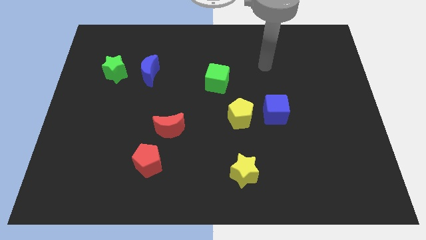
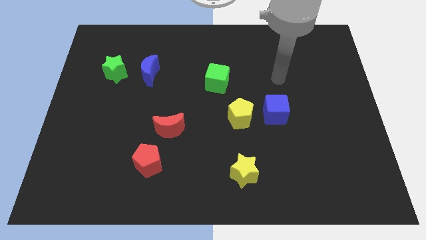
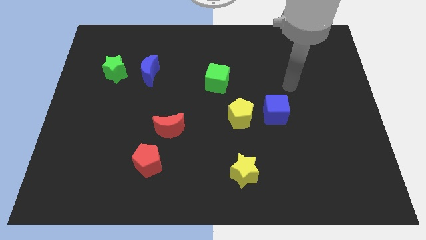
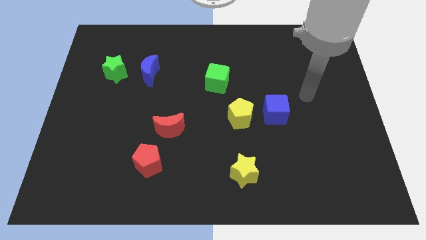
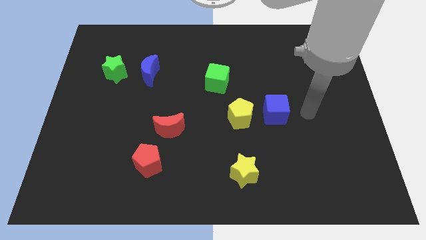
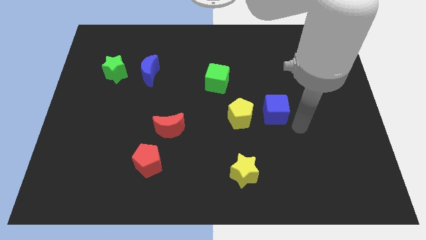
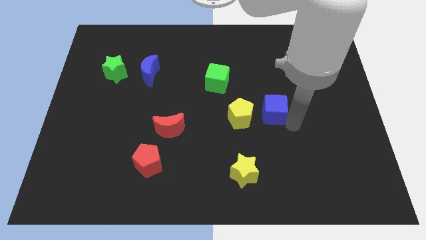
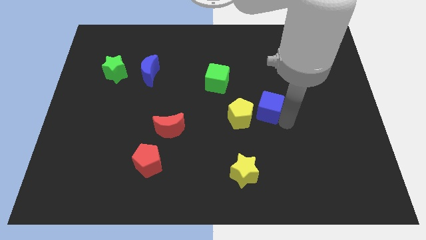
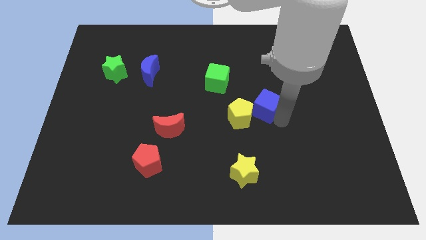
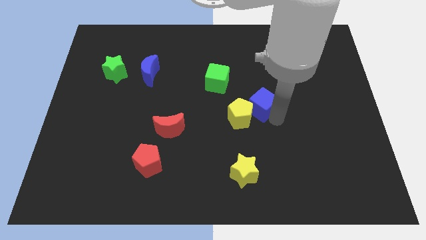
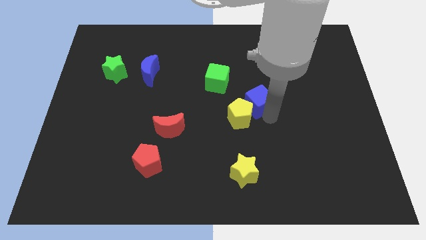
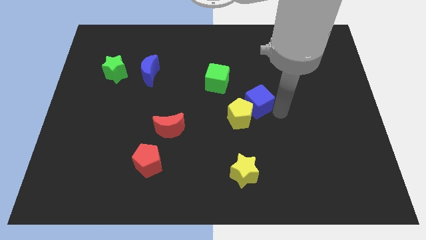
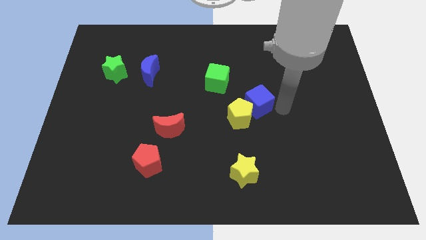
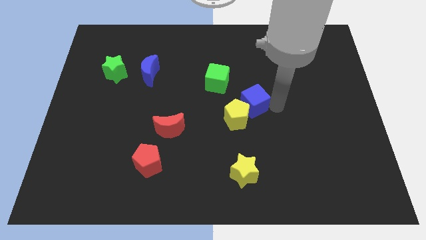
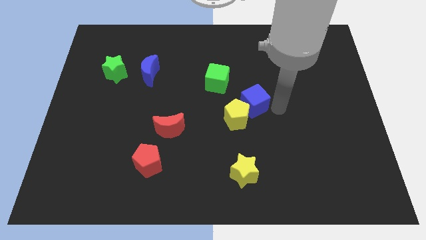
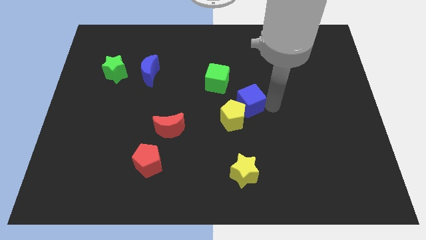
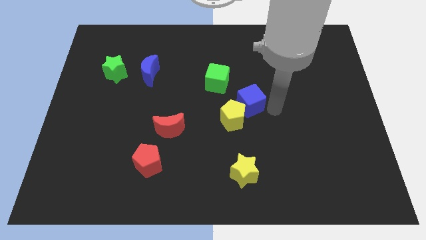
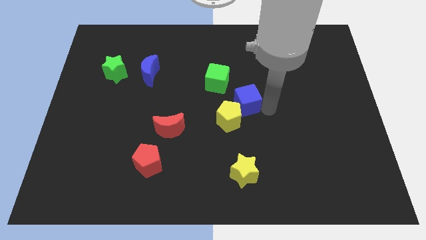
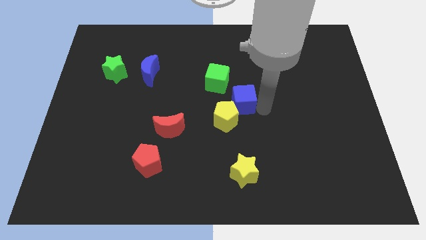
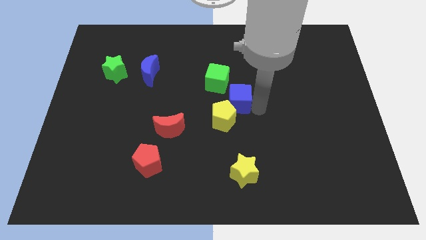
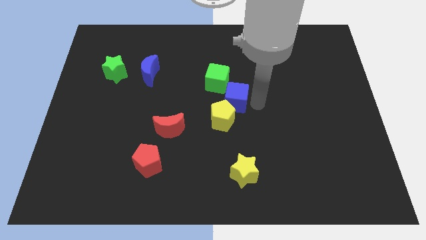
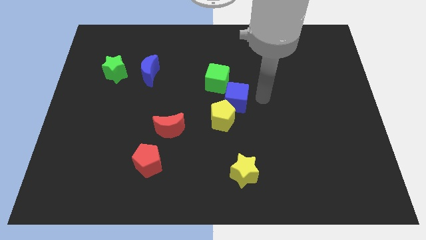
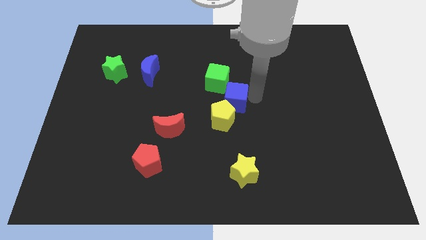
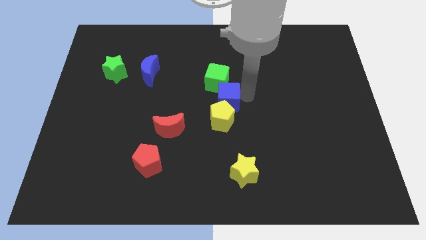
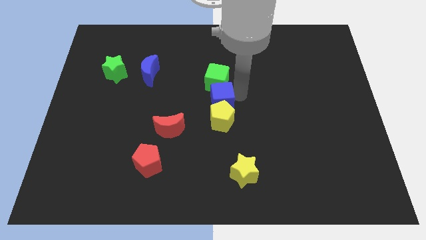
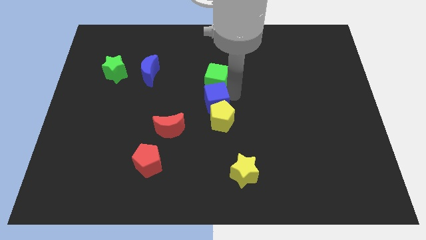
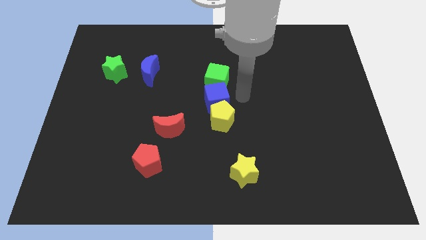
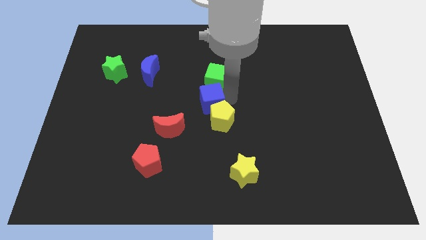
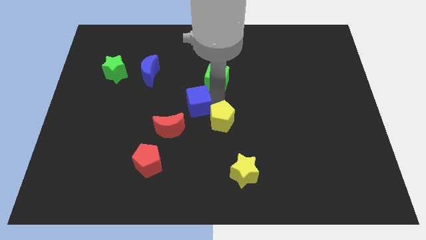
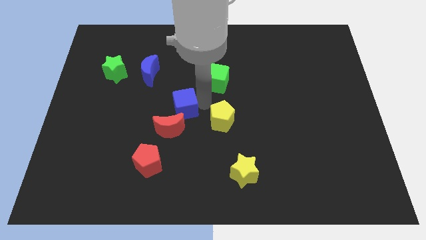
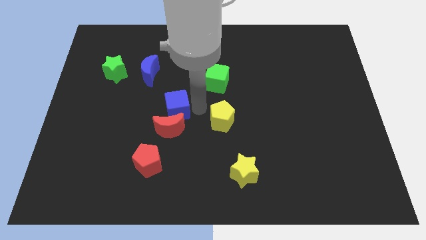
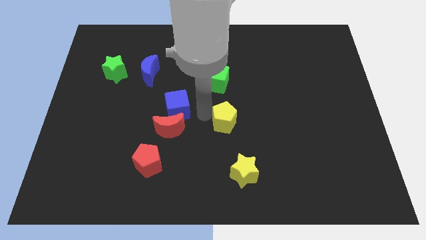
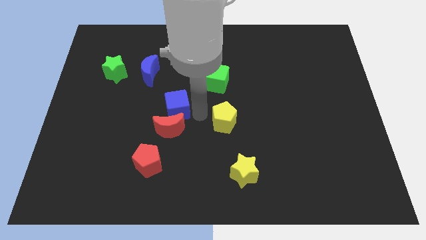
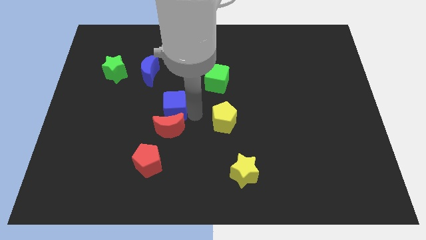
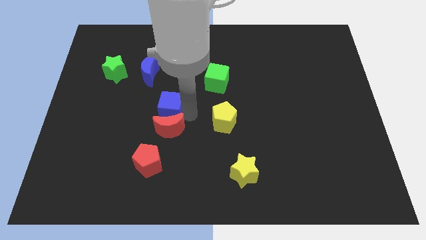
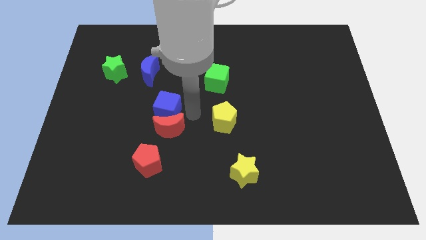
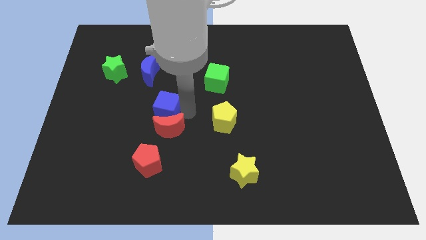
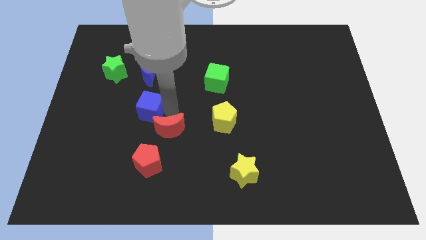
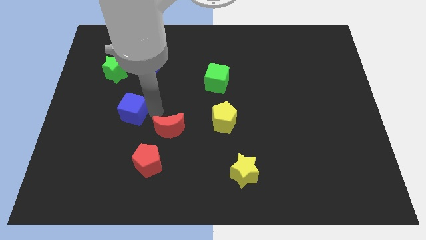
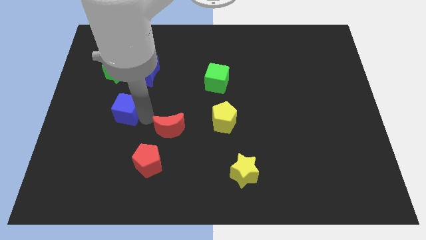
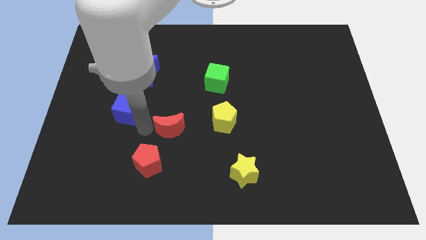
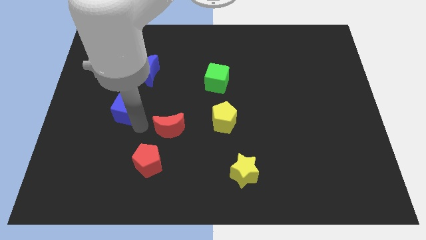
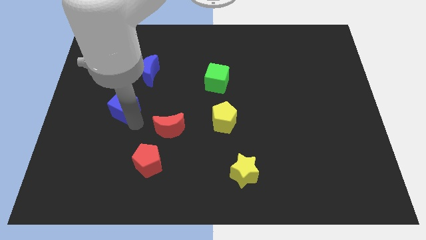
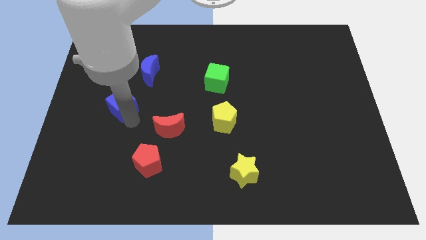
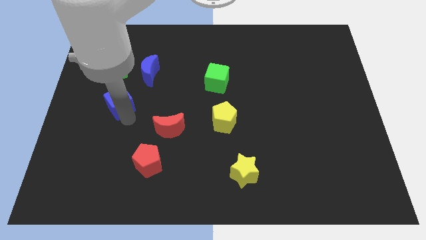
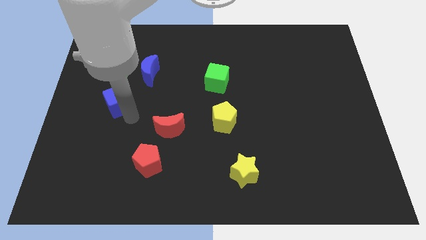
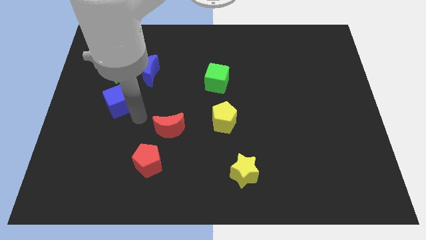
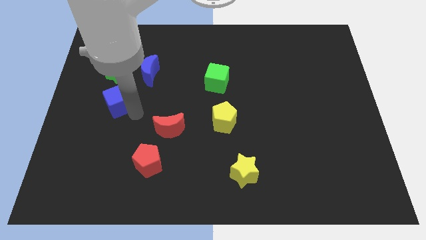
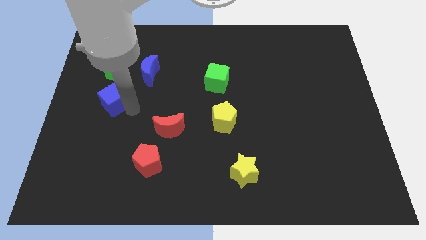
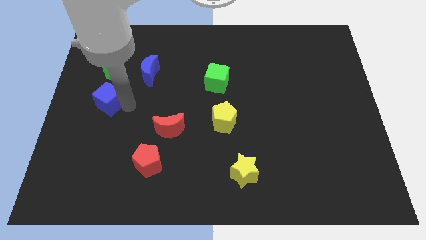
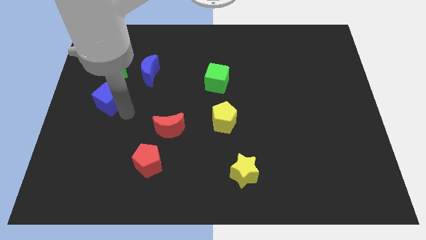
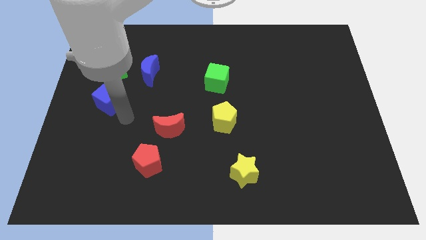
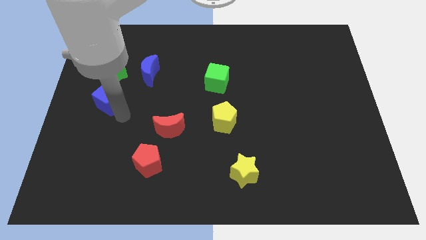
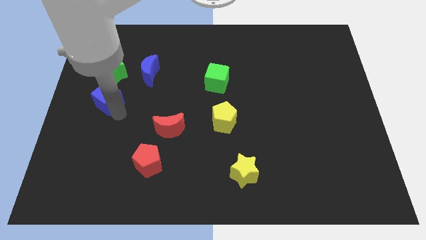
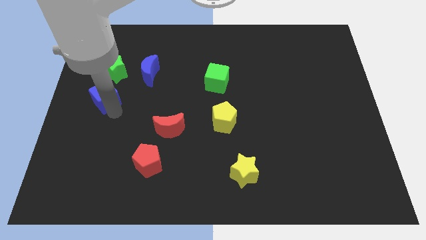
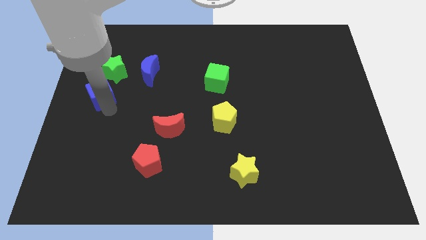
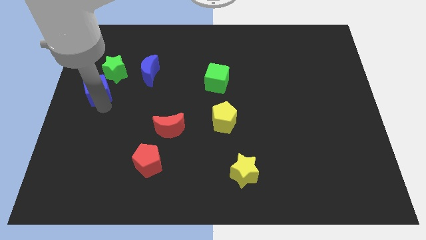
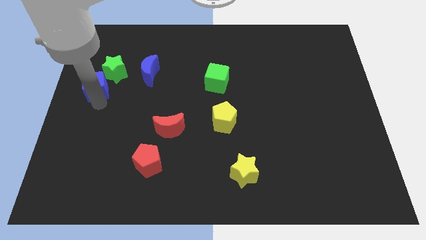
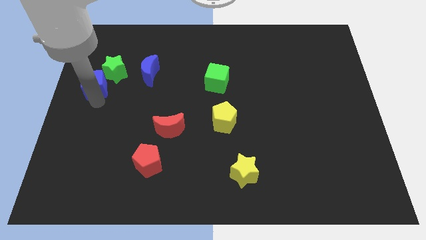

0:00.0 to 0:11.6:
put the blue cube just left of the blue moon

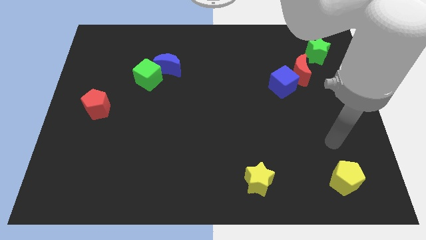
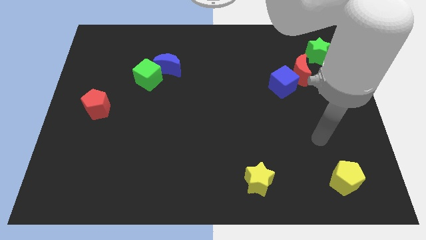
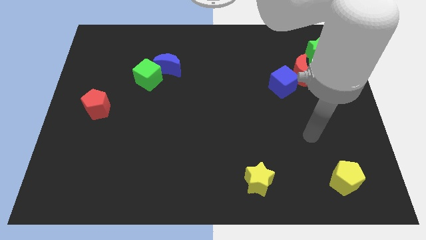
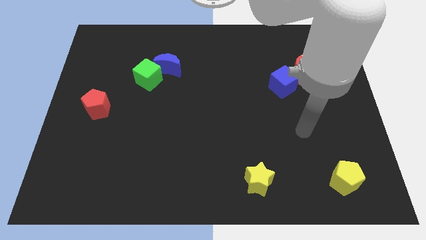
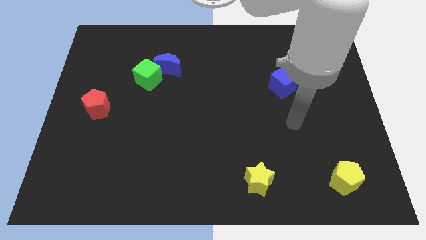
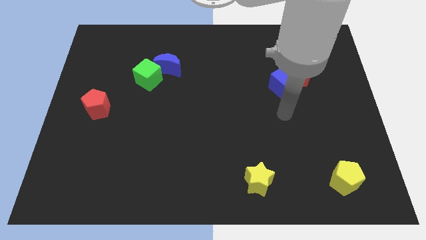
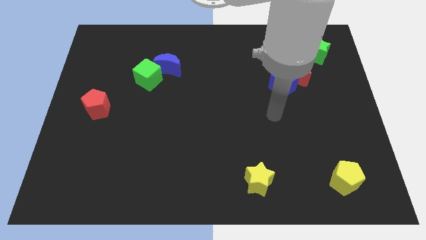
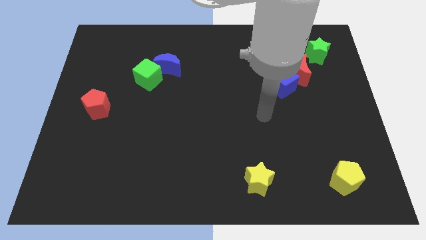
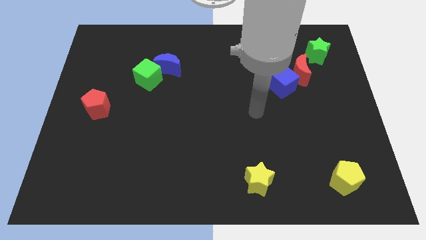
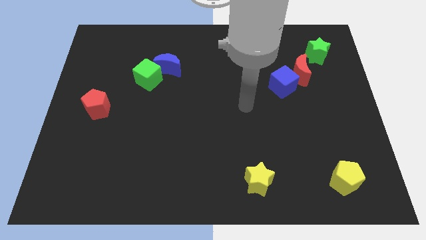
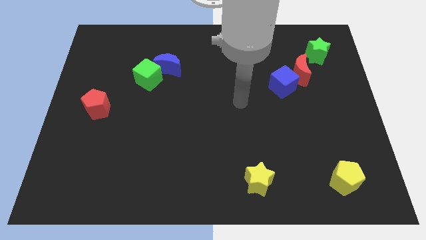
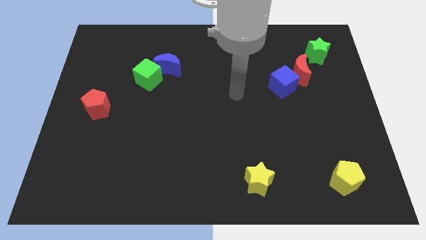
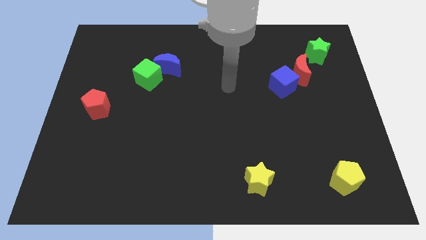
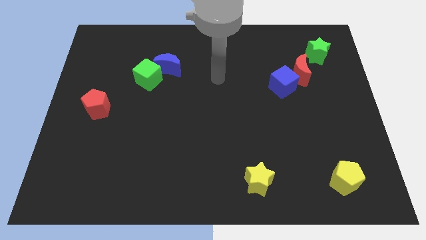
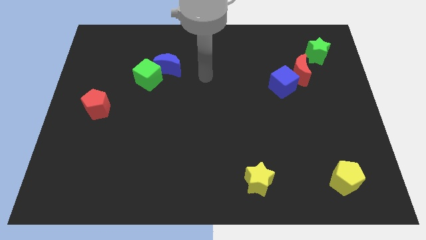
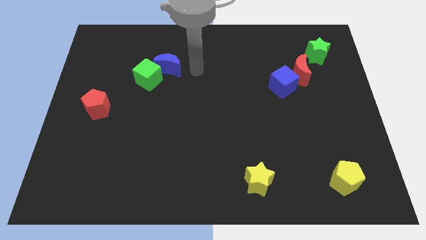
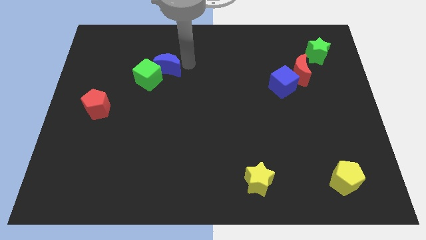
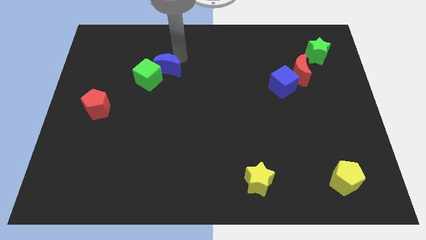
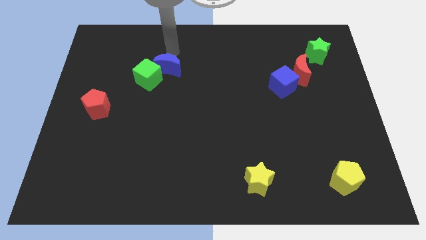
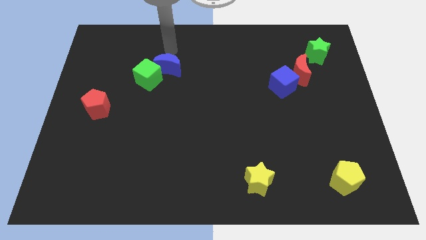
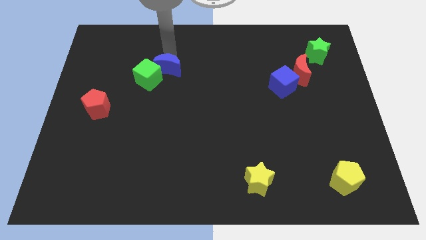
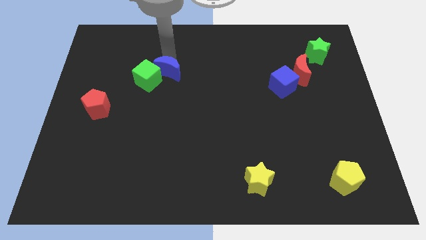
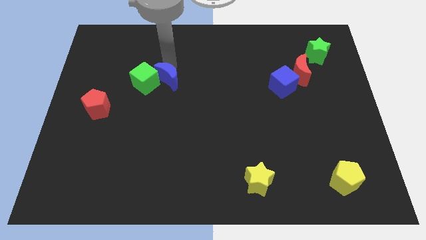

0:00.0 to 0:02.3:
push the blue moon diagonally down and to the right of the green cube

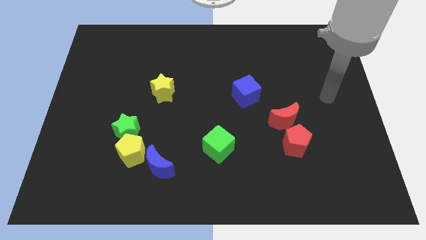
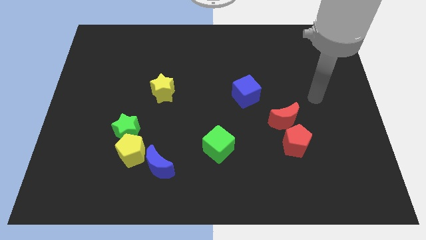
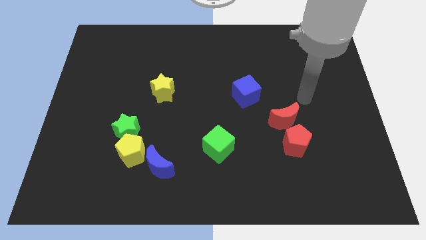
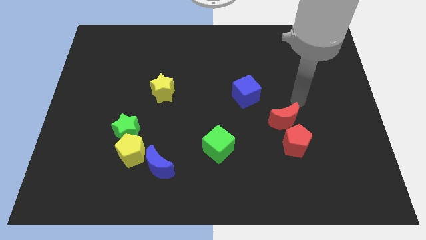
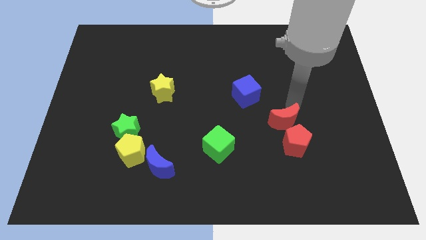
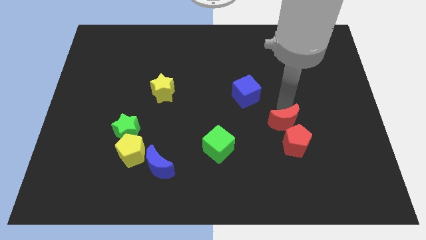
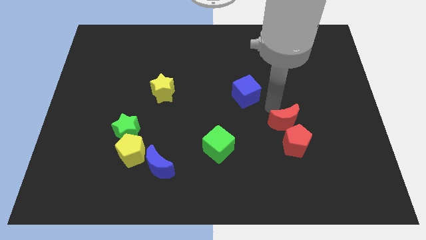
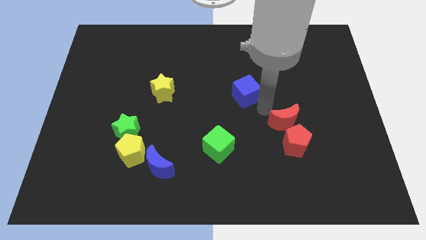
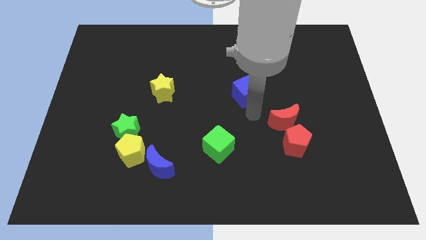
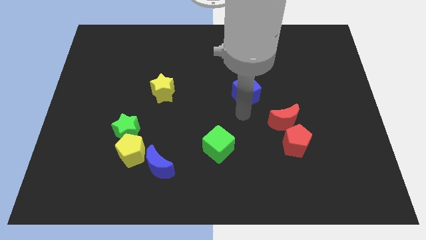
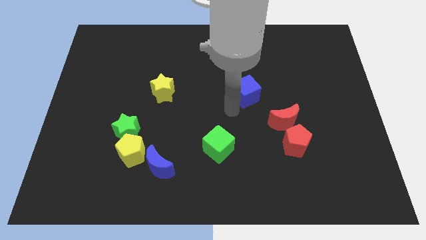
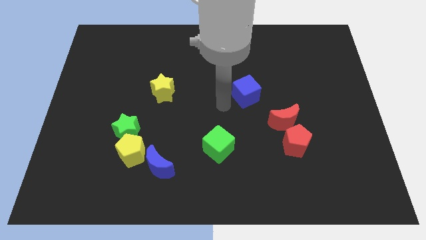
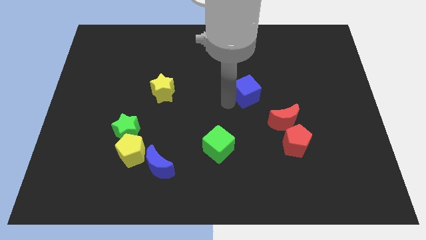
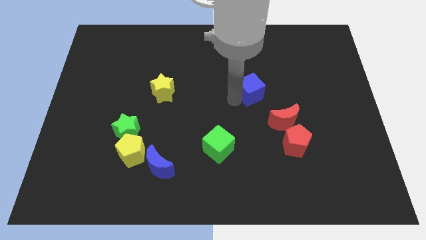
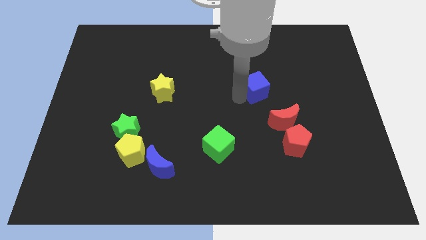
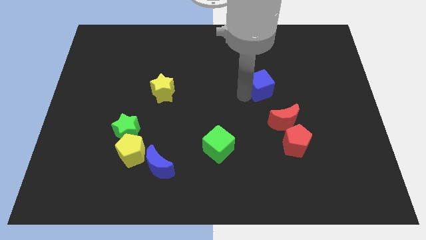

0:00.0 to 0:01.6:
slide the blue cube to the top side of the red moon
